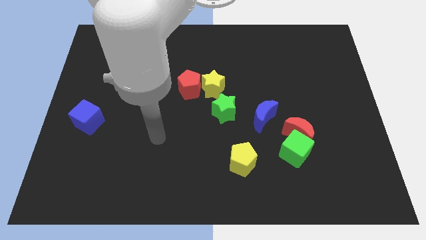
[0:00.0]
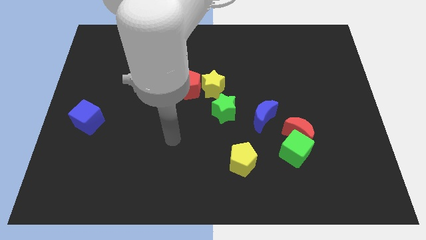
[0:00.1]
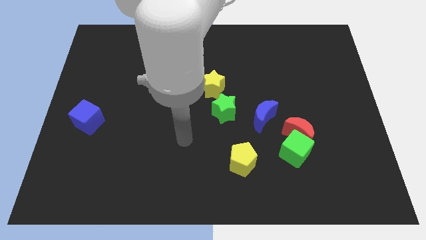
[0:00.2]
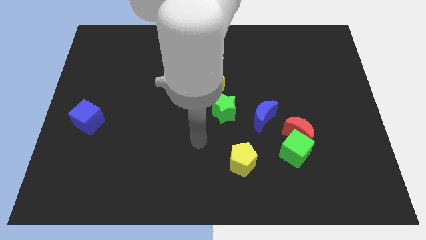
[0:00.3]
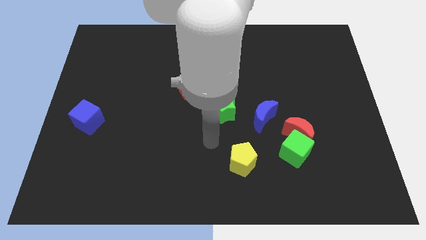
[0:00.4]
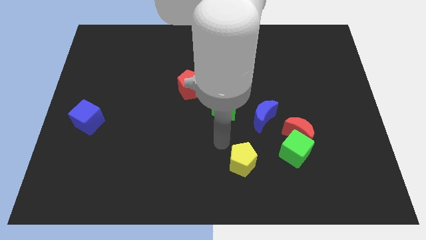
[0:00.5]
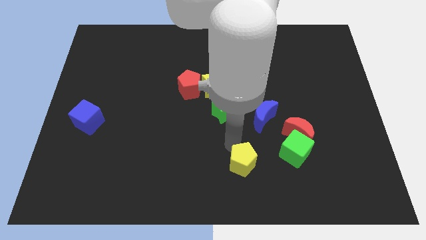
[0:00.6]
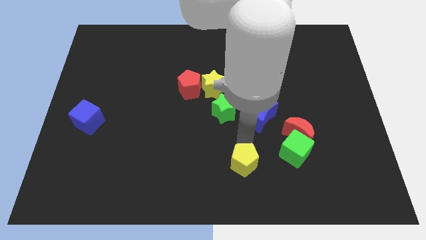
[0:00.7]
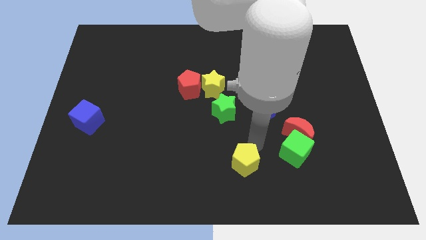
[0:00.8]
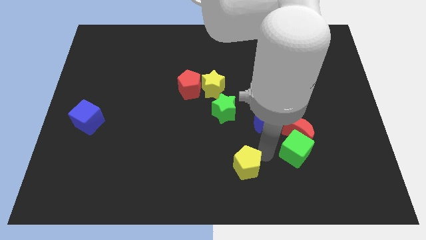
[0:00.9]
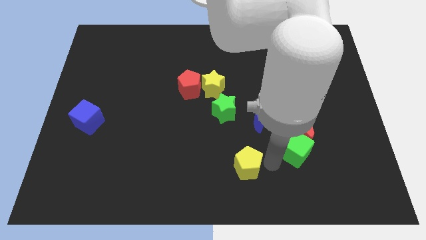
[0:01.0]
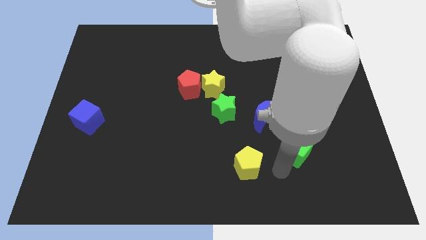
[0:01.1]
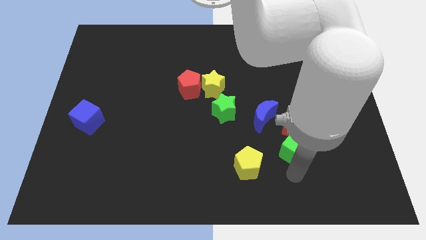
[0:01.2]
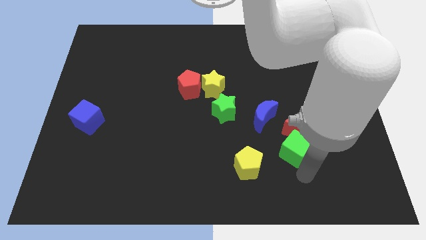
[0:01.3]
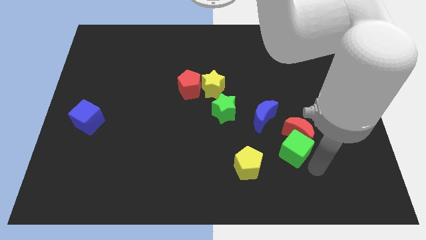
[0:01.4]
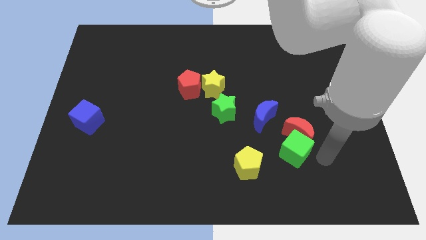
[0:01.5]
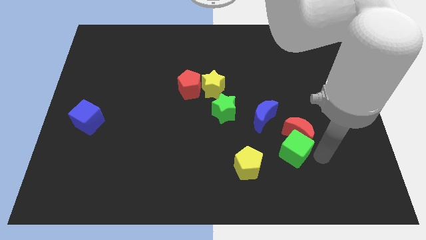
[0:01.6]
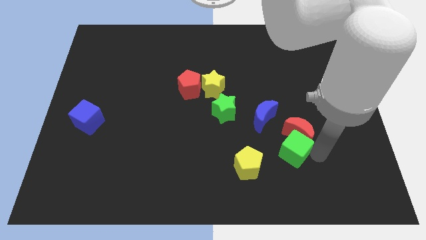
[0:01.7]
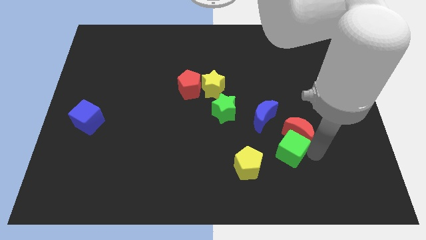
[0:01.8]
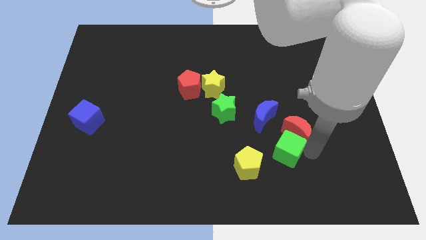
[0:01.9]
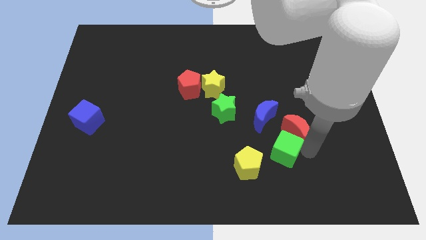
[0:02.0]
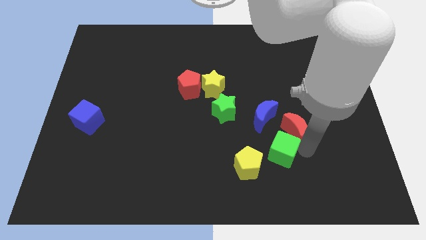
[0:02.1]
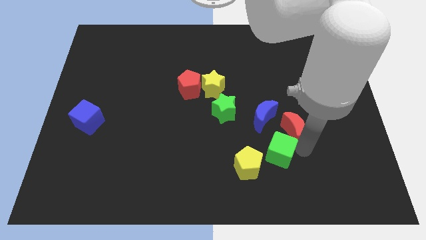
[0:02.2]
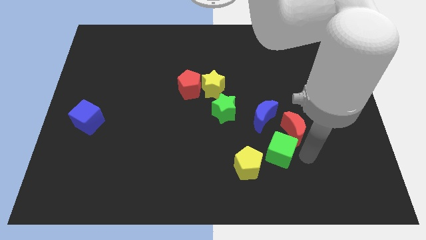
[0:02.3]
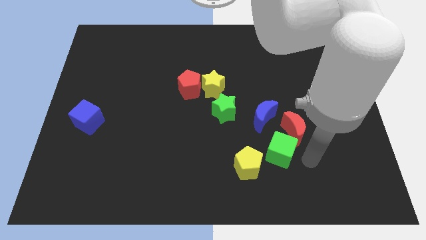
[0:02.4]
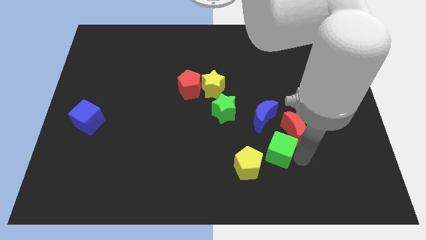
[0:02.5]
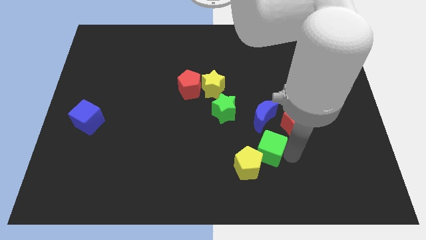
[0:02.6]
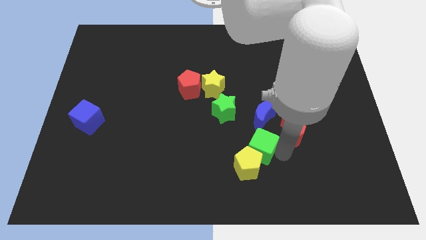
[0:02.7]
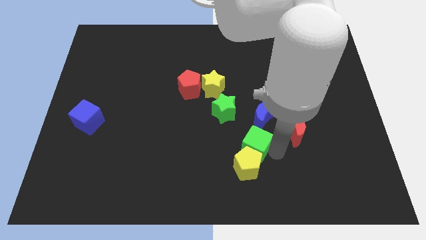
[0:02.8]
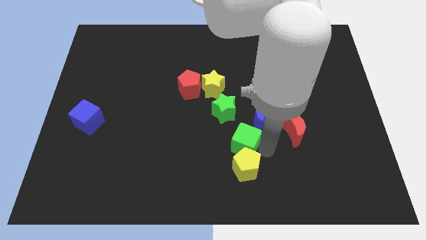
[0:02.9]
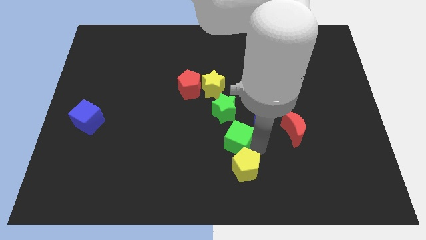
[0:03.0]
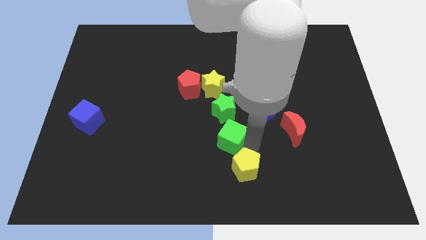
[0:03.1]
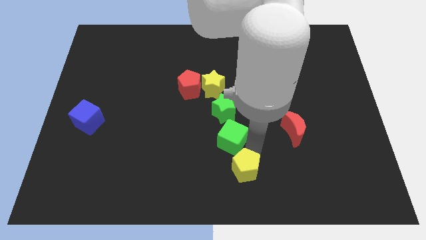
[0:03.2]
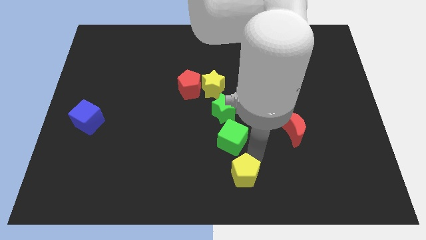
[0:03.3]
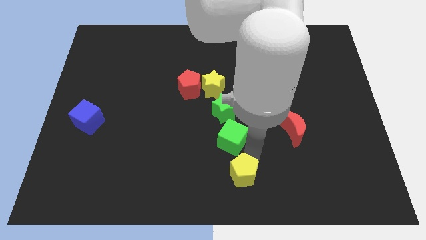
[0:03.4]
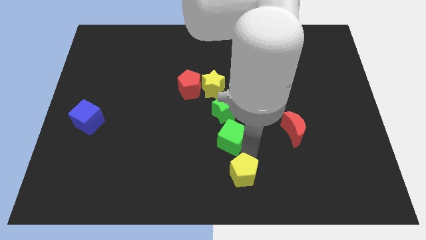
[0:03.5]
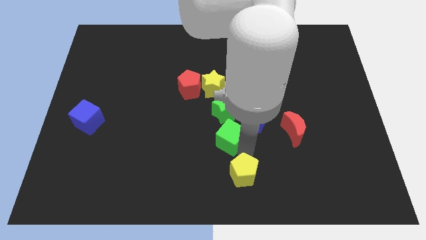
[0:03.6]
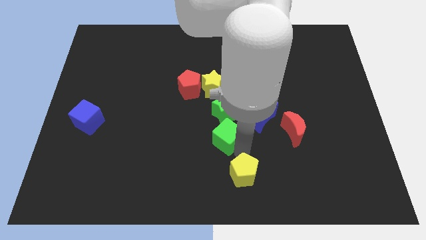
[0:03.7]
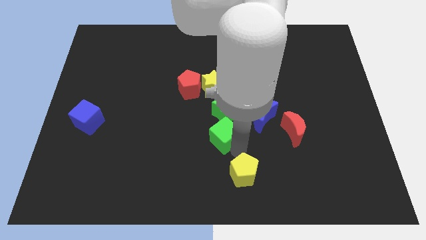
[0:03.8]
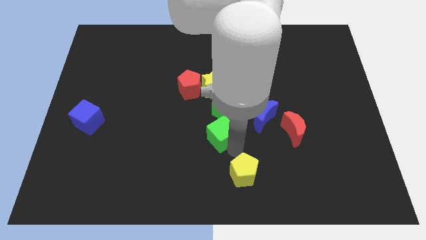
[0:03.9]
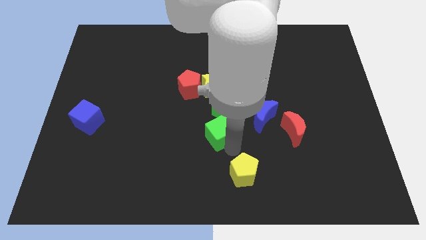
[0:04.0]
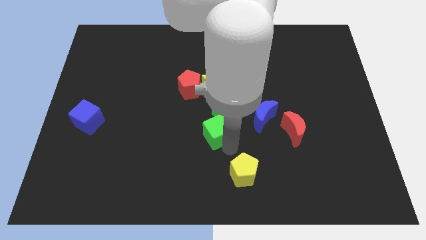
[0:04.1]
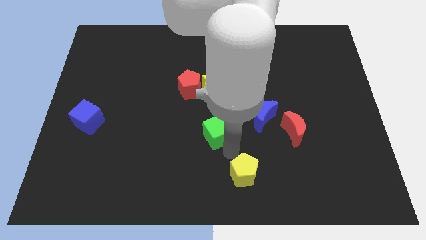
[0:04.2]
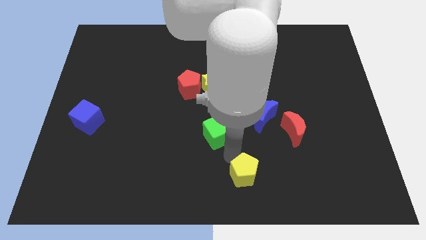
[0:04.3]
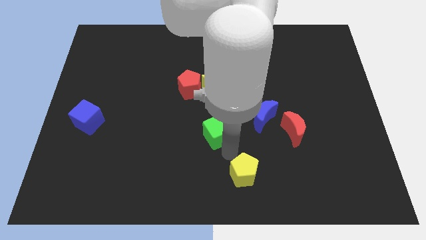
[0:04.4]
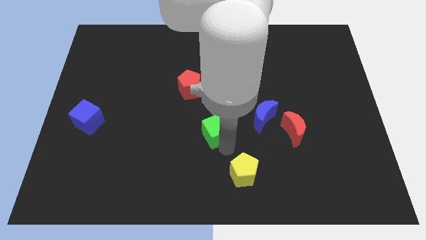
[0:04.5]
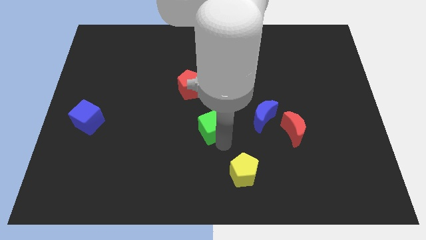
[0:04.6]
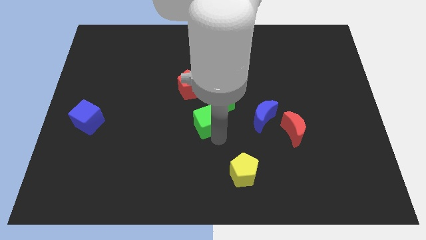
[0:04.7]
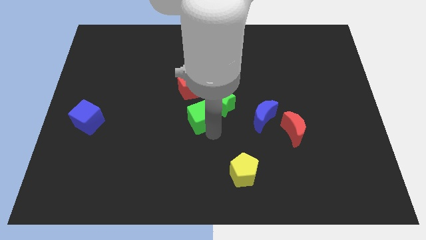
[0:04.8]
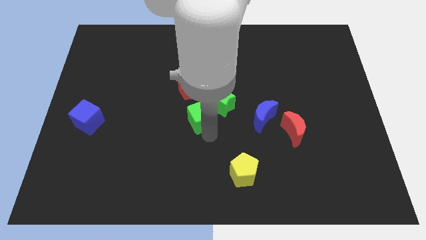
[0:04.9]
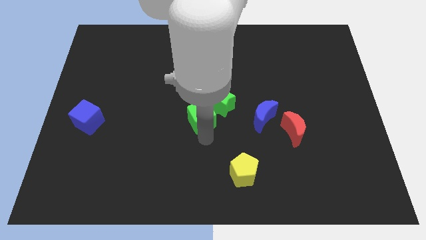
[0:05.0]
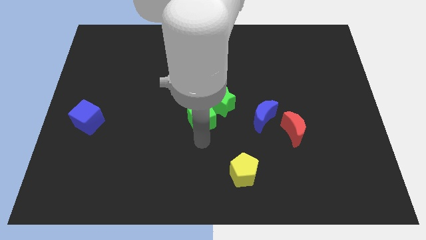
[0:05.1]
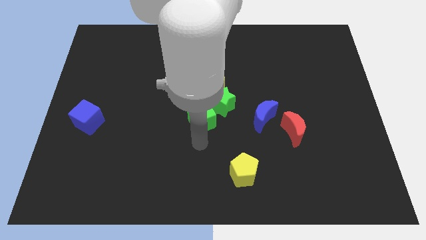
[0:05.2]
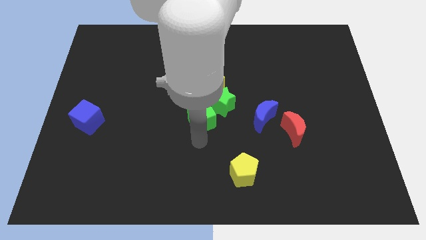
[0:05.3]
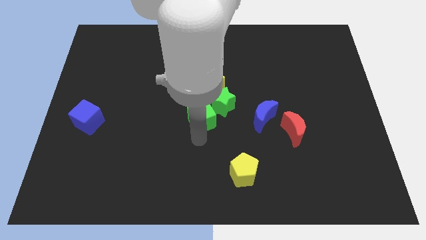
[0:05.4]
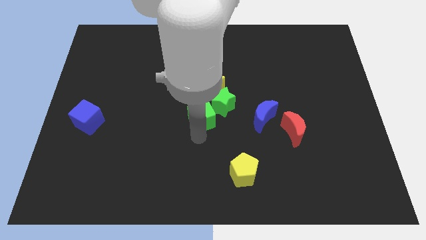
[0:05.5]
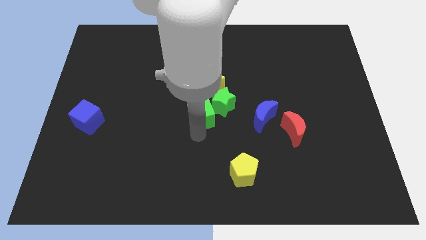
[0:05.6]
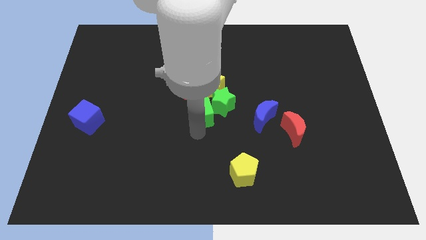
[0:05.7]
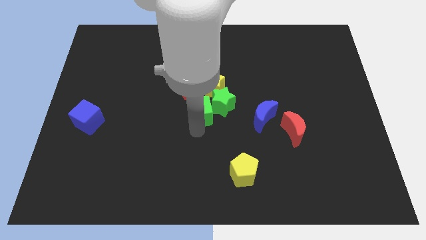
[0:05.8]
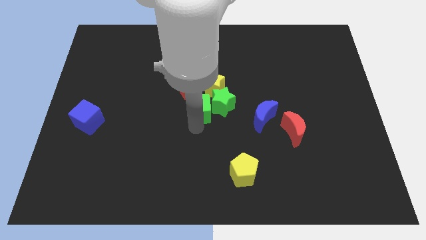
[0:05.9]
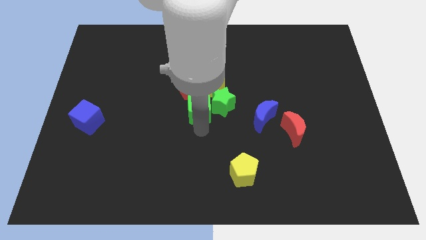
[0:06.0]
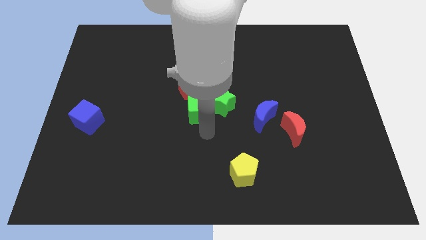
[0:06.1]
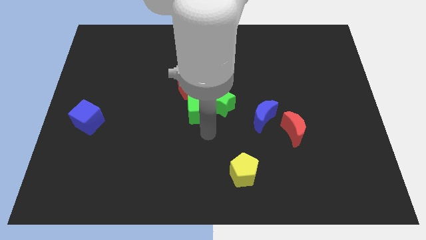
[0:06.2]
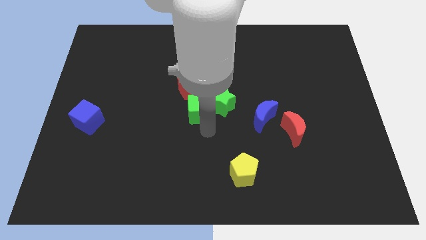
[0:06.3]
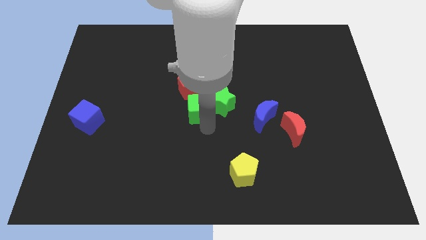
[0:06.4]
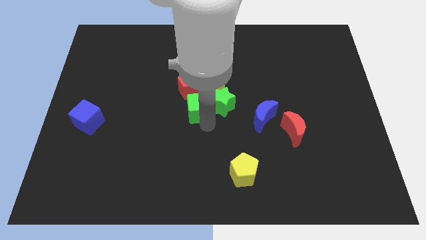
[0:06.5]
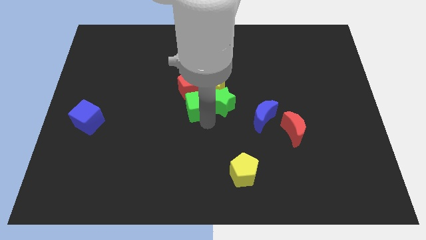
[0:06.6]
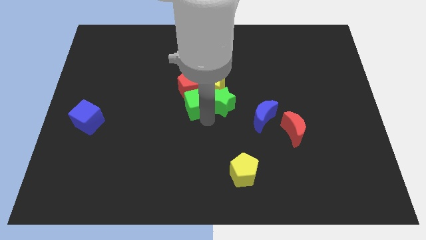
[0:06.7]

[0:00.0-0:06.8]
slide the green cube next to the red pentagon
